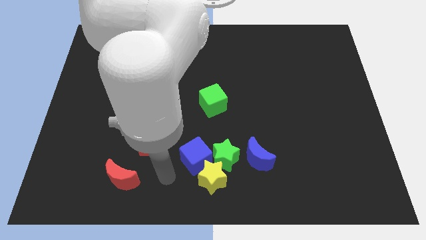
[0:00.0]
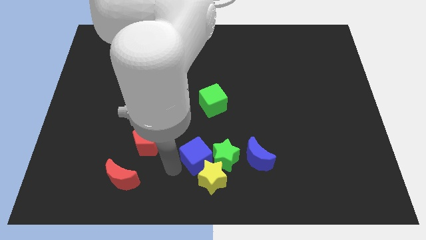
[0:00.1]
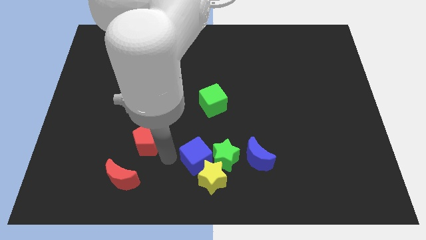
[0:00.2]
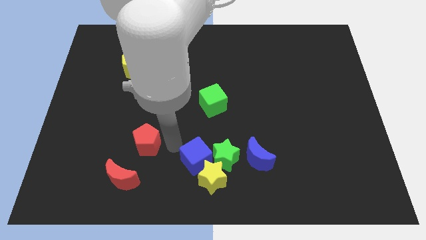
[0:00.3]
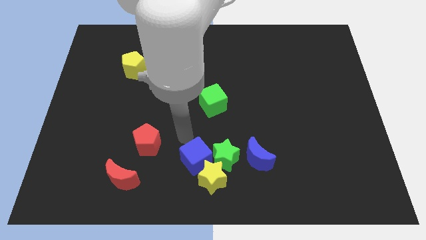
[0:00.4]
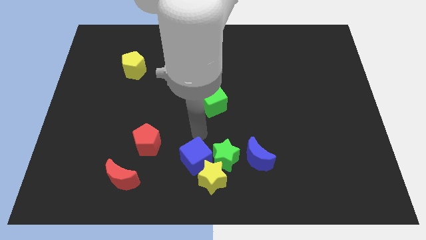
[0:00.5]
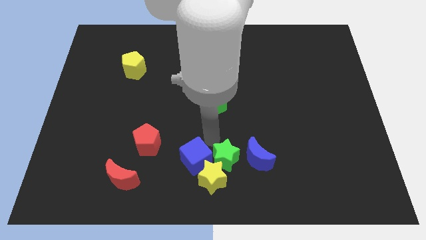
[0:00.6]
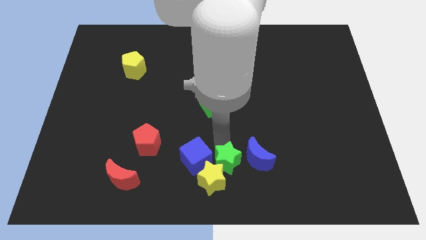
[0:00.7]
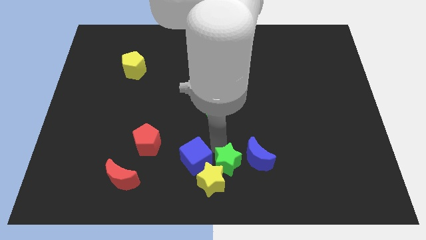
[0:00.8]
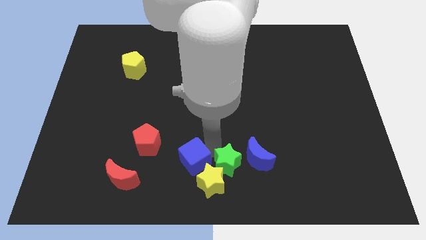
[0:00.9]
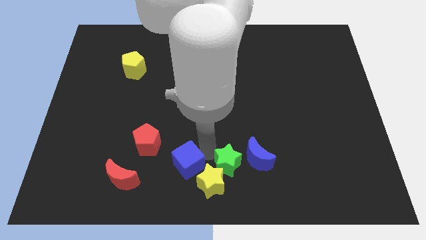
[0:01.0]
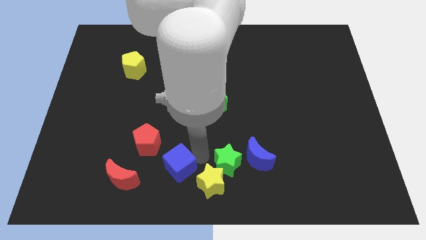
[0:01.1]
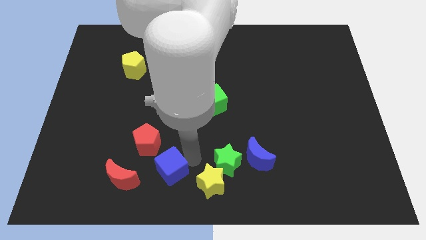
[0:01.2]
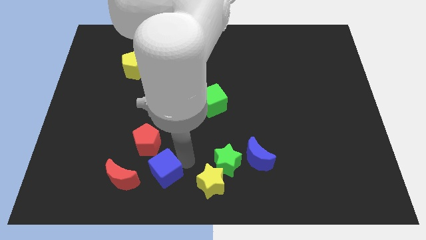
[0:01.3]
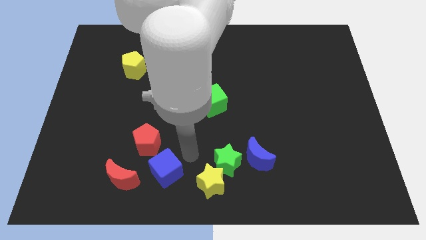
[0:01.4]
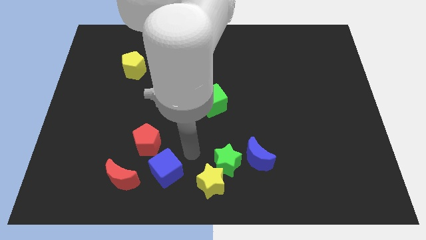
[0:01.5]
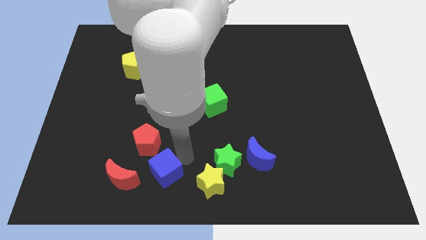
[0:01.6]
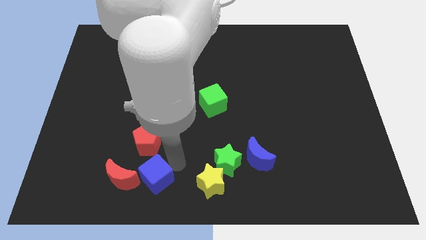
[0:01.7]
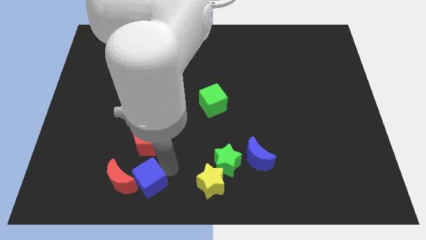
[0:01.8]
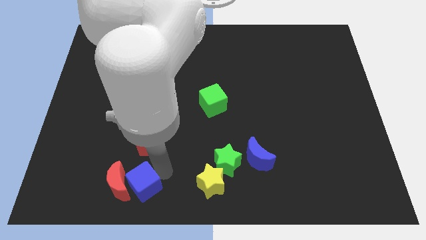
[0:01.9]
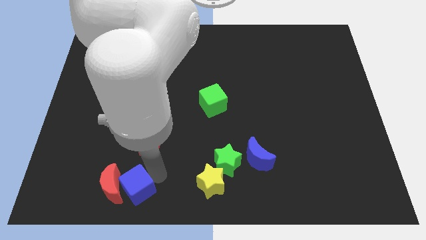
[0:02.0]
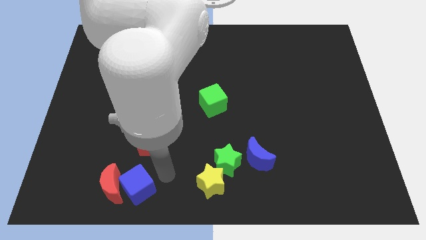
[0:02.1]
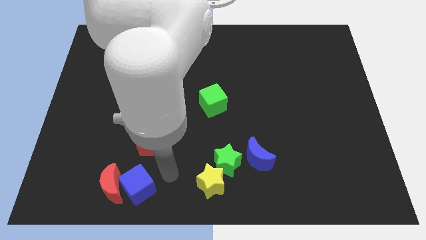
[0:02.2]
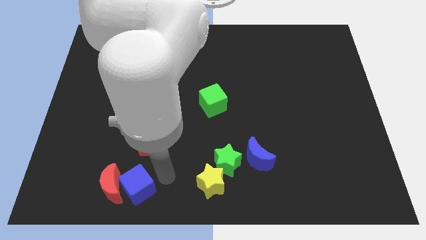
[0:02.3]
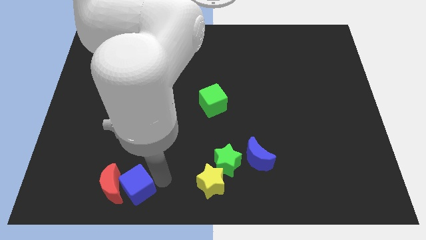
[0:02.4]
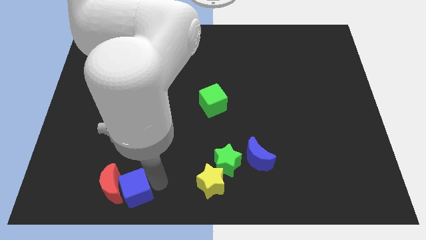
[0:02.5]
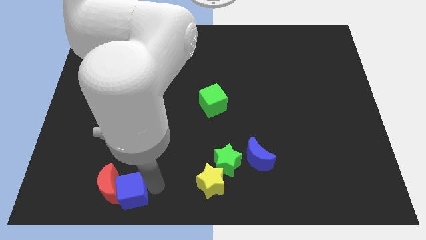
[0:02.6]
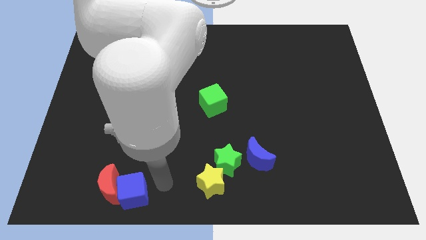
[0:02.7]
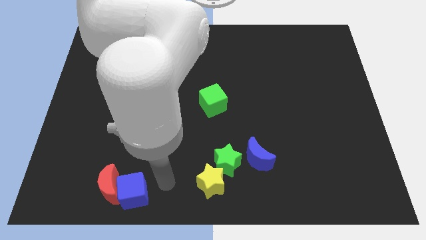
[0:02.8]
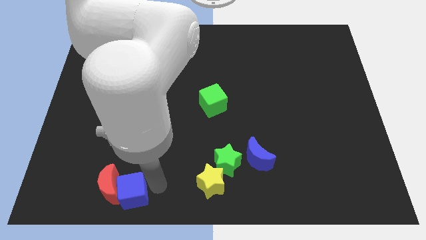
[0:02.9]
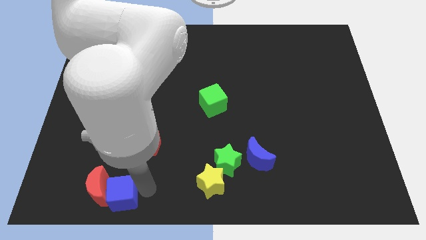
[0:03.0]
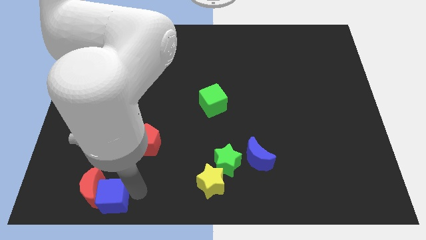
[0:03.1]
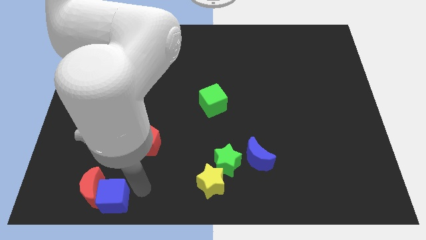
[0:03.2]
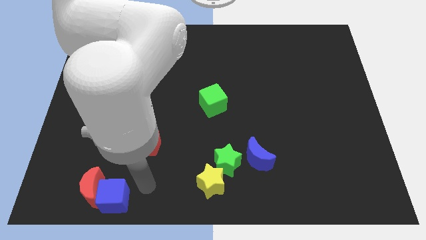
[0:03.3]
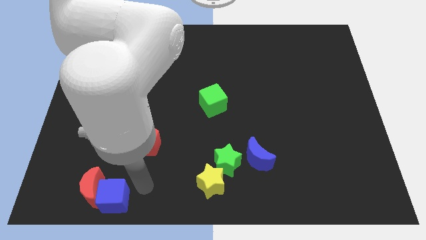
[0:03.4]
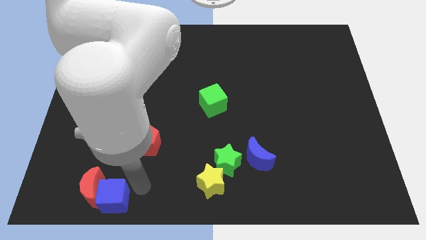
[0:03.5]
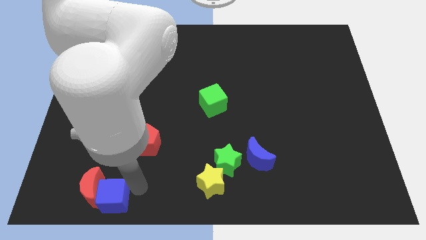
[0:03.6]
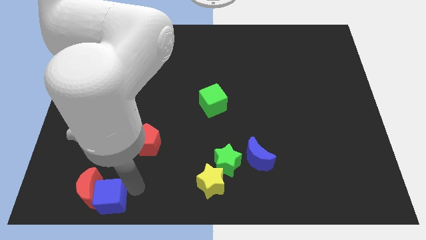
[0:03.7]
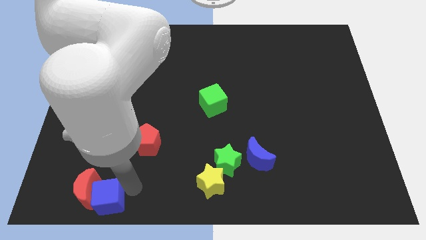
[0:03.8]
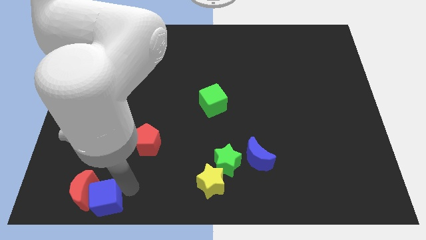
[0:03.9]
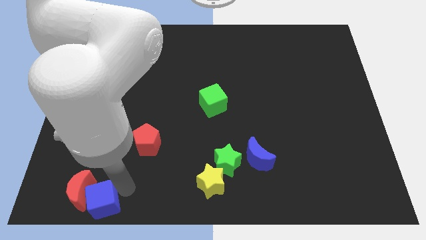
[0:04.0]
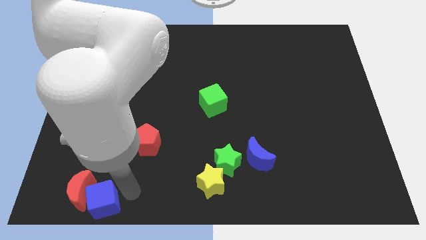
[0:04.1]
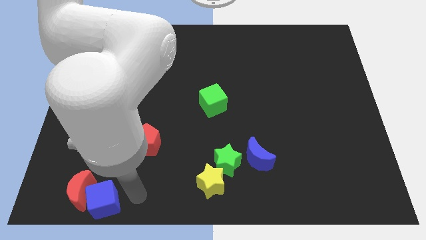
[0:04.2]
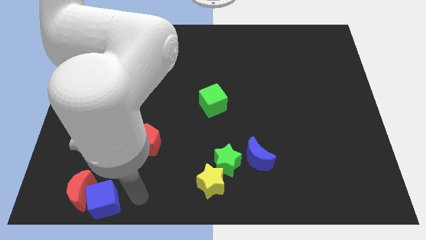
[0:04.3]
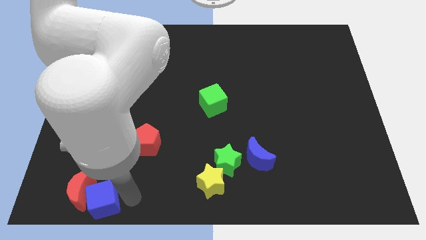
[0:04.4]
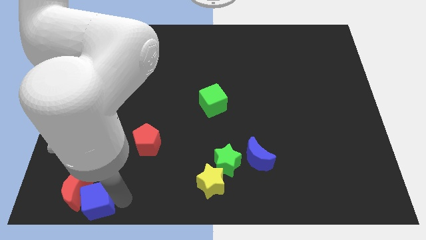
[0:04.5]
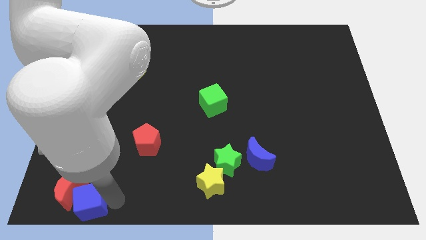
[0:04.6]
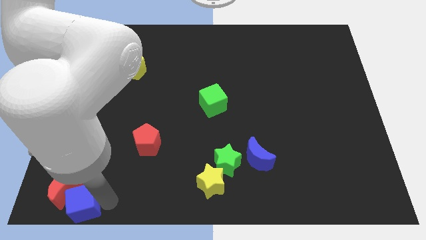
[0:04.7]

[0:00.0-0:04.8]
move the blue cube to the bottom left corner

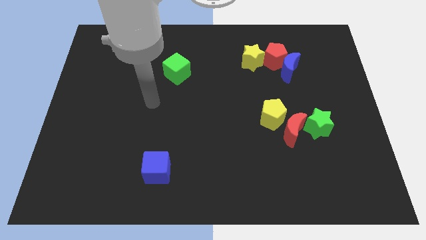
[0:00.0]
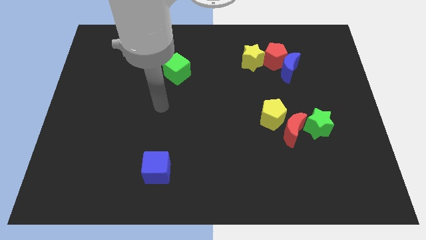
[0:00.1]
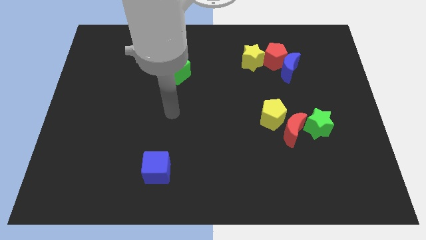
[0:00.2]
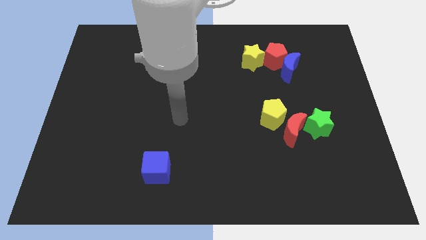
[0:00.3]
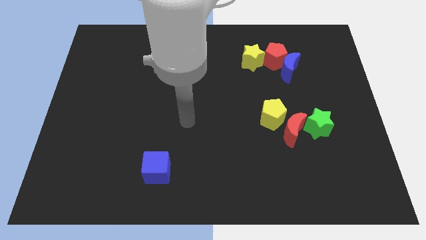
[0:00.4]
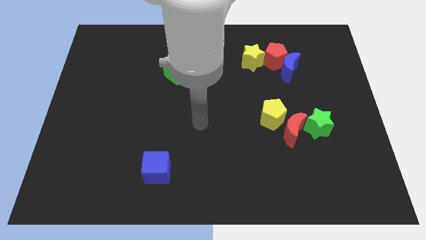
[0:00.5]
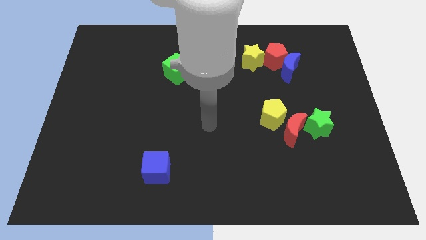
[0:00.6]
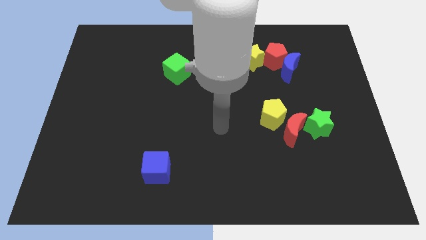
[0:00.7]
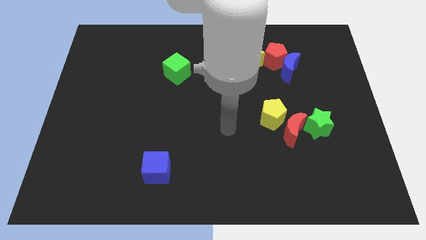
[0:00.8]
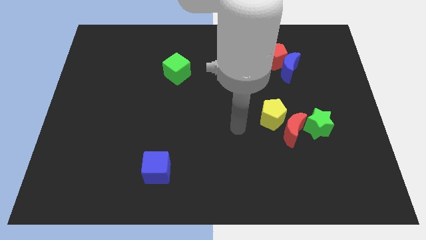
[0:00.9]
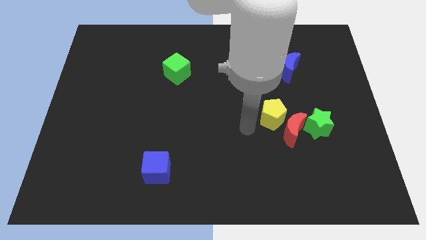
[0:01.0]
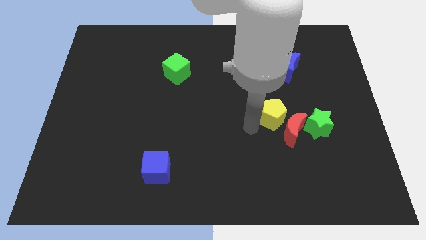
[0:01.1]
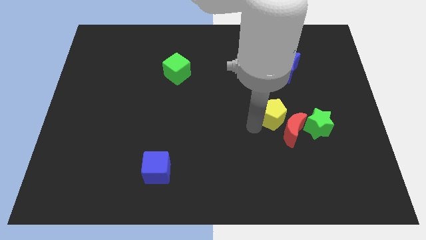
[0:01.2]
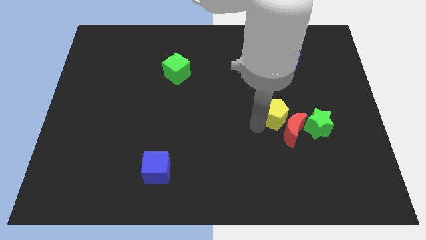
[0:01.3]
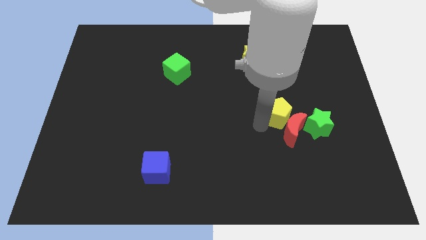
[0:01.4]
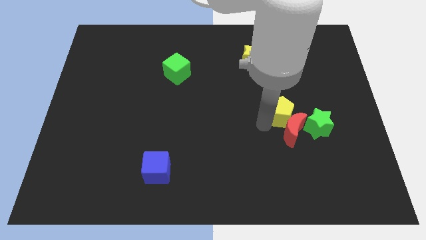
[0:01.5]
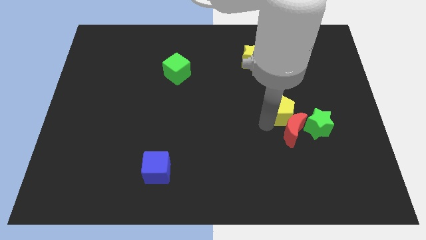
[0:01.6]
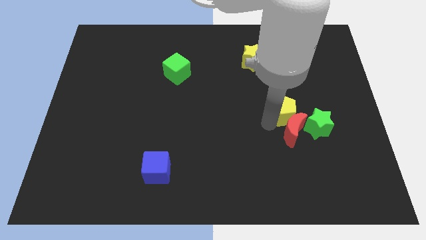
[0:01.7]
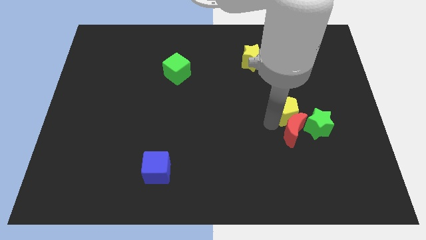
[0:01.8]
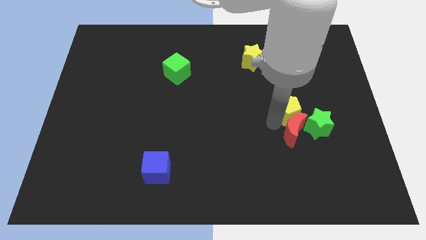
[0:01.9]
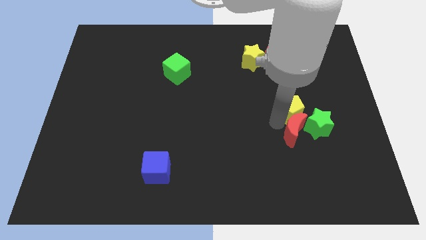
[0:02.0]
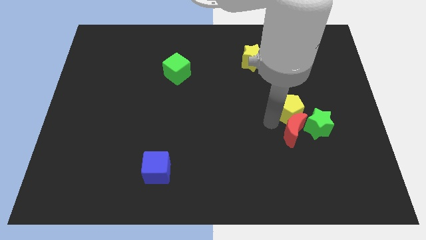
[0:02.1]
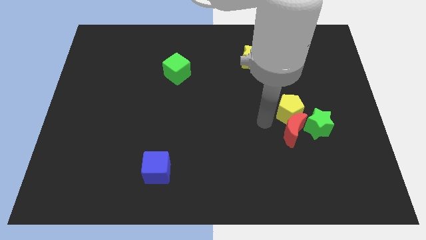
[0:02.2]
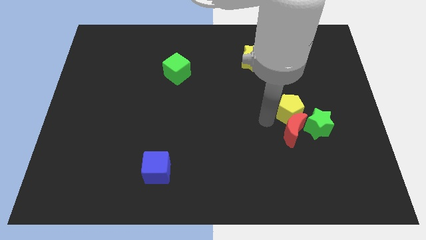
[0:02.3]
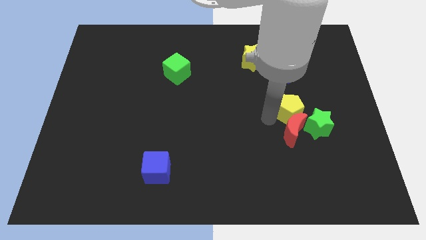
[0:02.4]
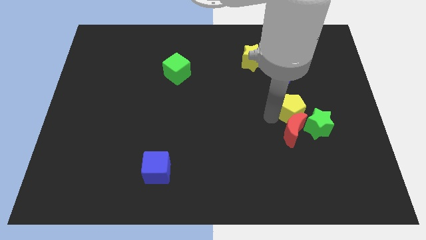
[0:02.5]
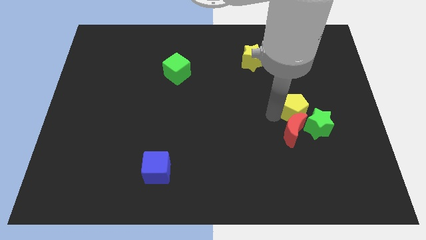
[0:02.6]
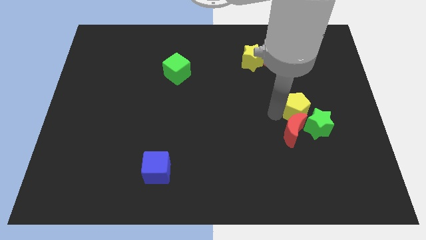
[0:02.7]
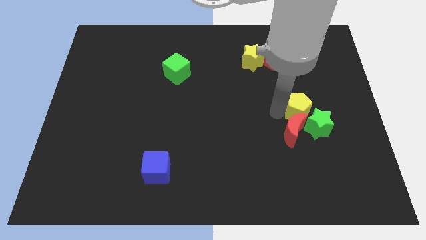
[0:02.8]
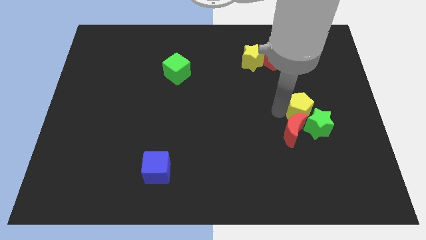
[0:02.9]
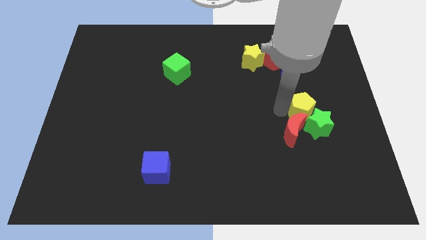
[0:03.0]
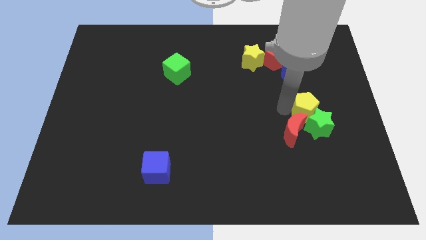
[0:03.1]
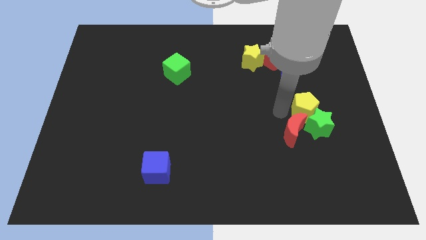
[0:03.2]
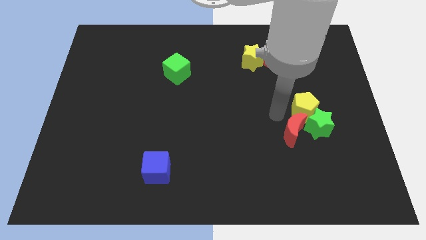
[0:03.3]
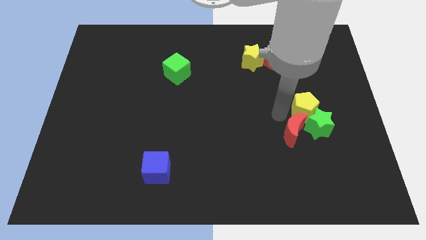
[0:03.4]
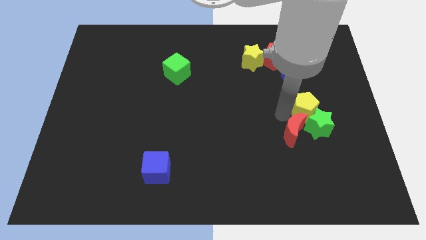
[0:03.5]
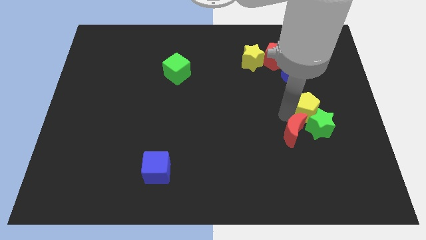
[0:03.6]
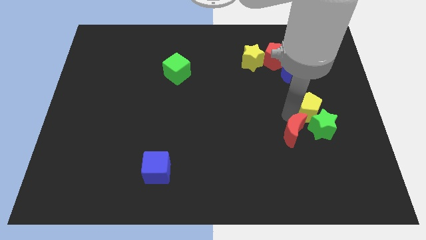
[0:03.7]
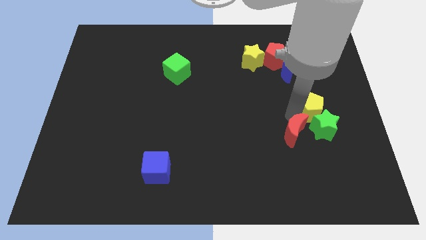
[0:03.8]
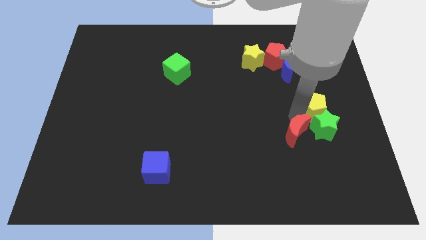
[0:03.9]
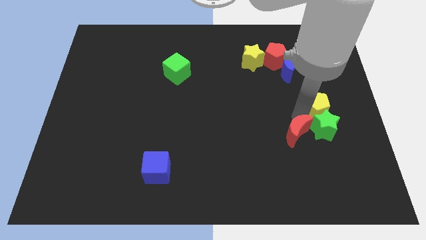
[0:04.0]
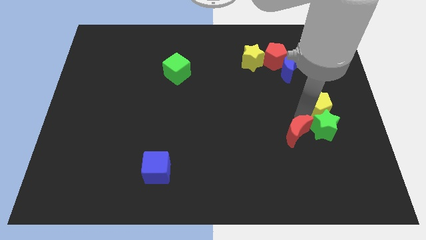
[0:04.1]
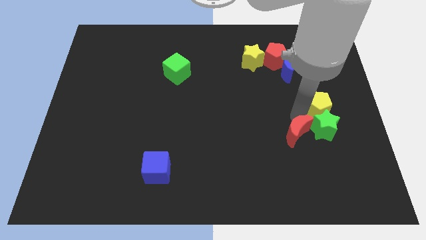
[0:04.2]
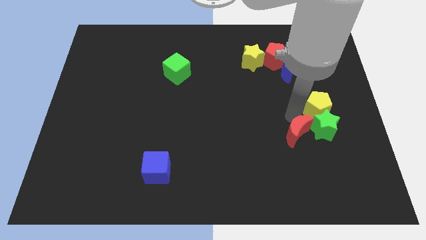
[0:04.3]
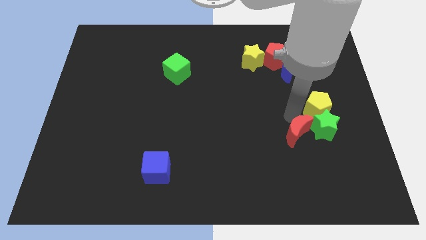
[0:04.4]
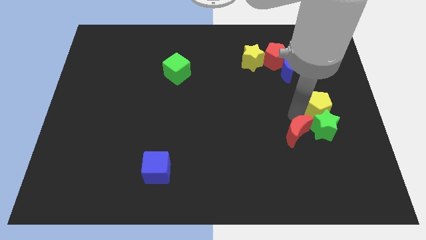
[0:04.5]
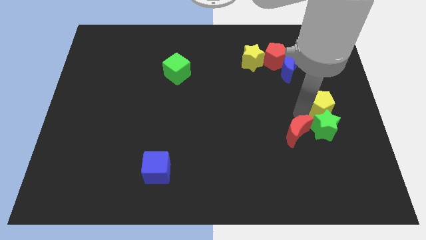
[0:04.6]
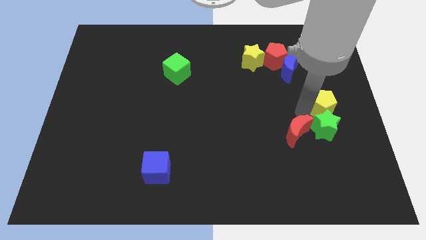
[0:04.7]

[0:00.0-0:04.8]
slide the yellow pentagon to the right side
